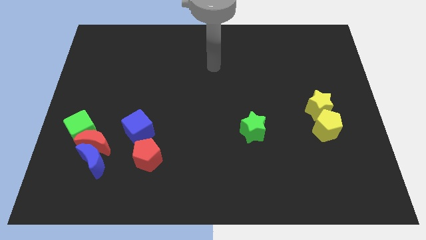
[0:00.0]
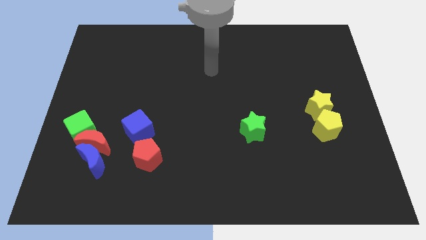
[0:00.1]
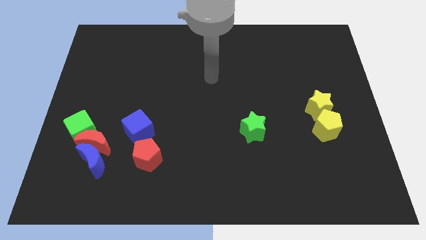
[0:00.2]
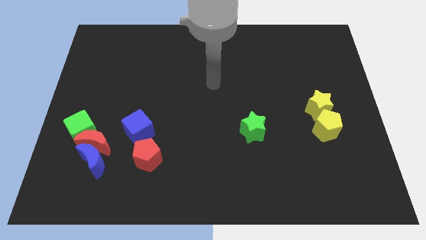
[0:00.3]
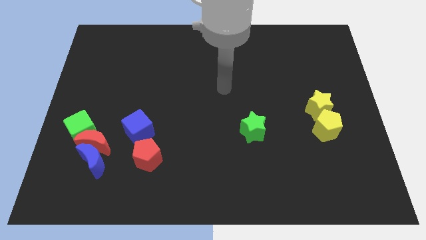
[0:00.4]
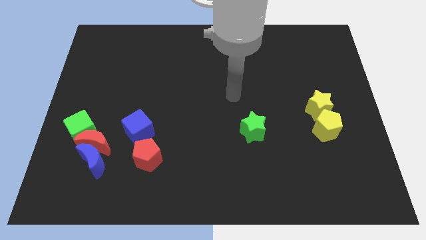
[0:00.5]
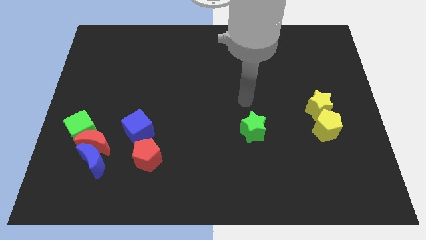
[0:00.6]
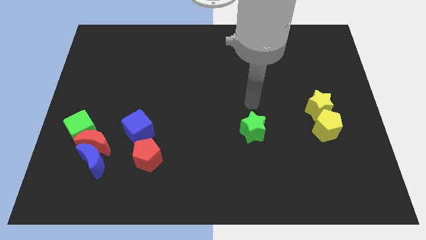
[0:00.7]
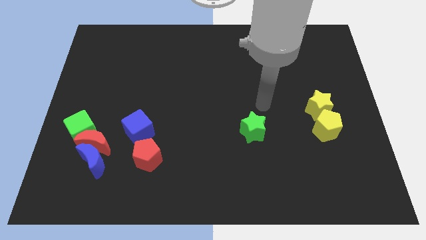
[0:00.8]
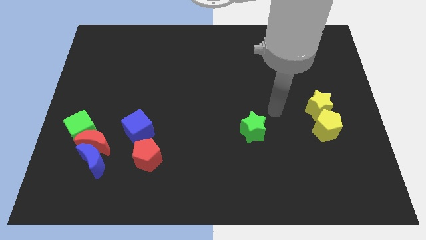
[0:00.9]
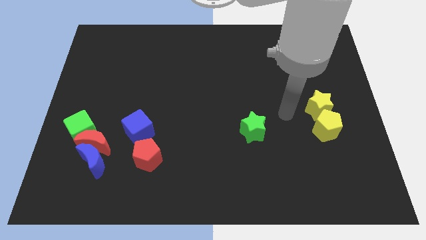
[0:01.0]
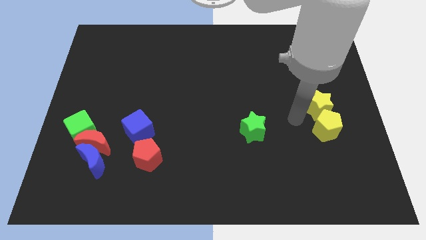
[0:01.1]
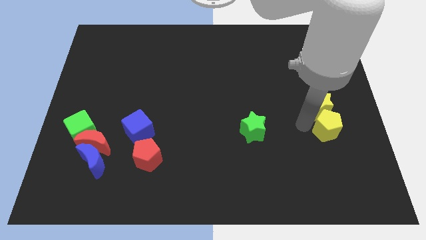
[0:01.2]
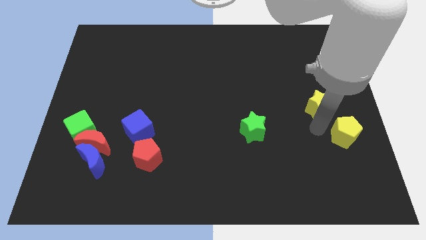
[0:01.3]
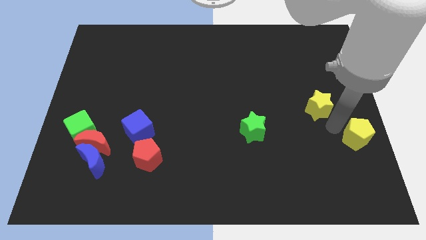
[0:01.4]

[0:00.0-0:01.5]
pull the yellow star apart from the yellow pentagon

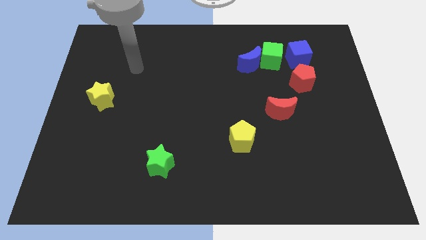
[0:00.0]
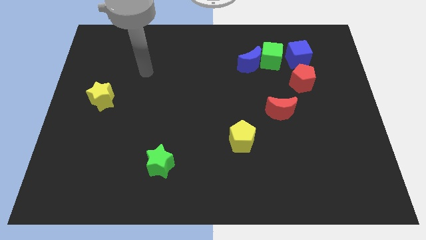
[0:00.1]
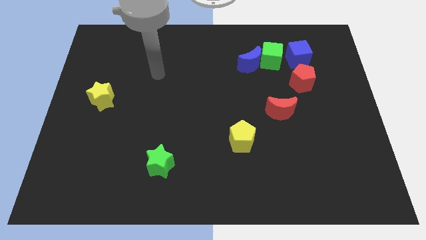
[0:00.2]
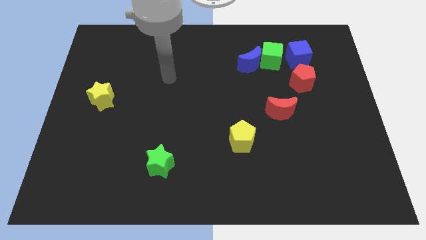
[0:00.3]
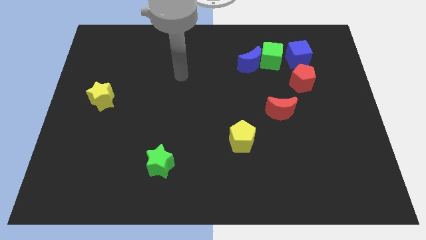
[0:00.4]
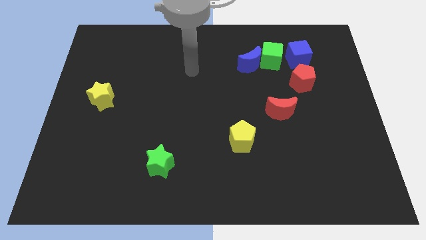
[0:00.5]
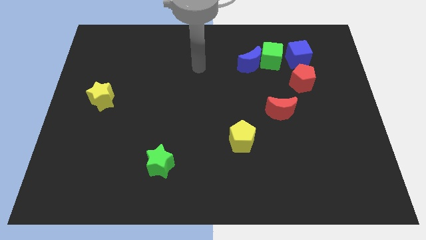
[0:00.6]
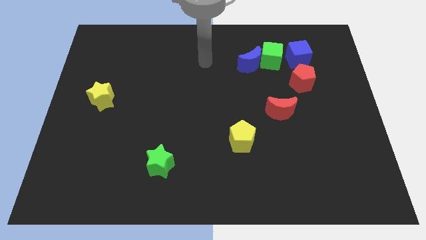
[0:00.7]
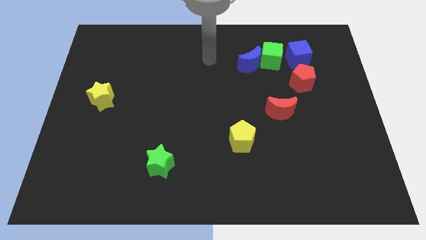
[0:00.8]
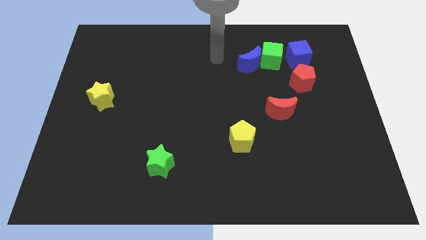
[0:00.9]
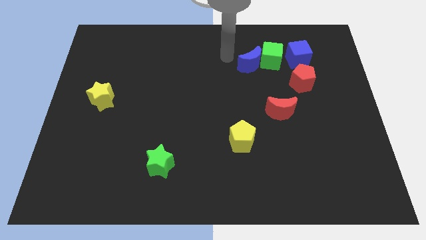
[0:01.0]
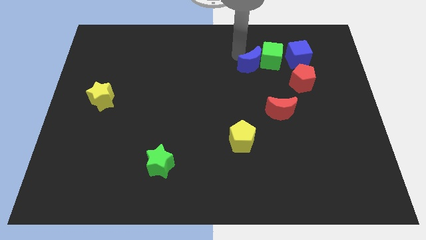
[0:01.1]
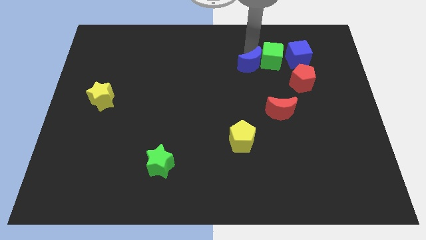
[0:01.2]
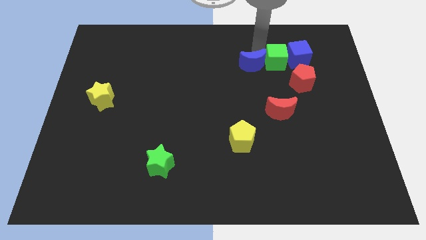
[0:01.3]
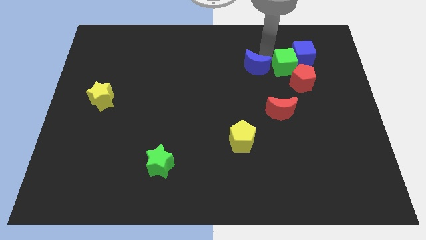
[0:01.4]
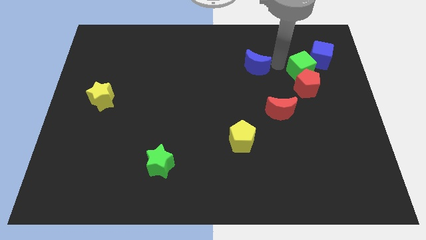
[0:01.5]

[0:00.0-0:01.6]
separate the blue moon from the green cube

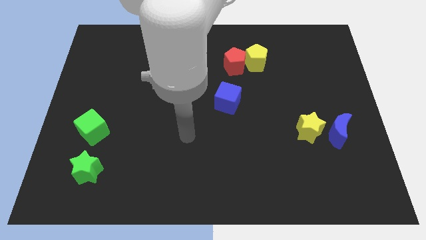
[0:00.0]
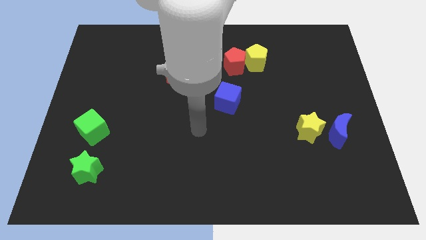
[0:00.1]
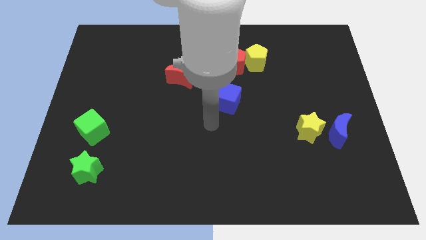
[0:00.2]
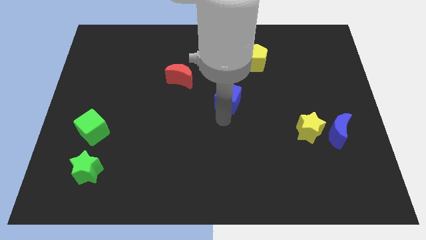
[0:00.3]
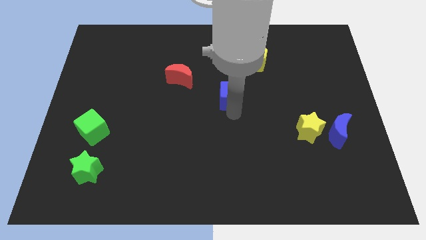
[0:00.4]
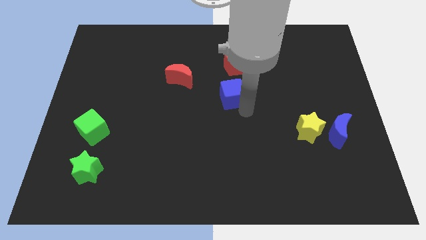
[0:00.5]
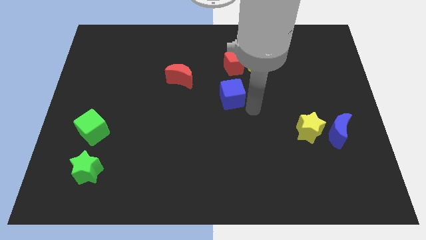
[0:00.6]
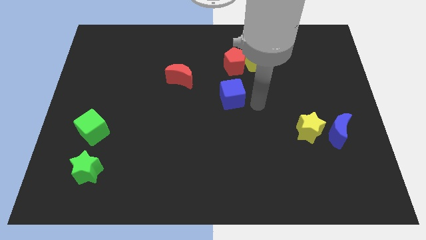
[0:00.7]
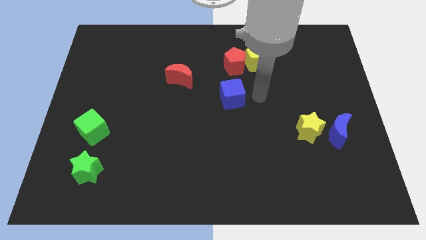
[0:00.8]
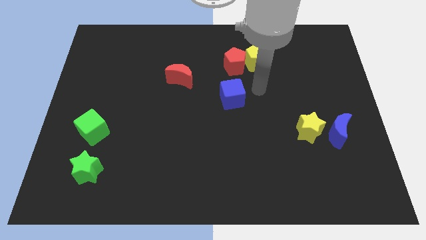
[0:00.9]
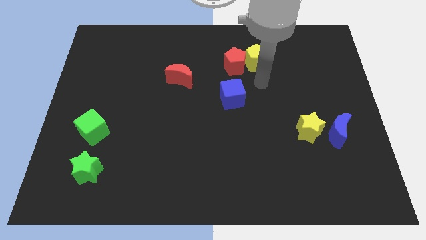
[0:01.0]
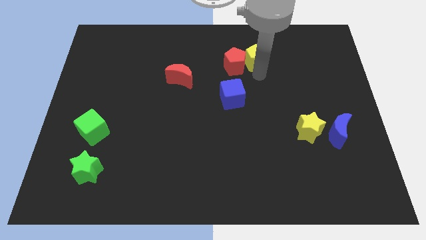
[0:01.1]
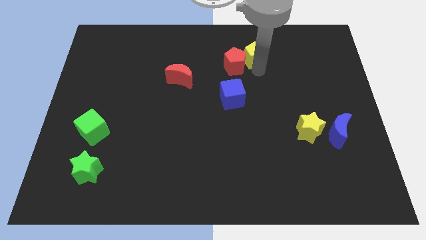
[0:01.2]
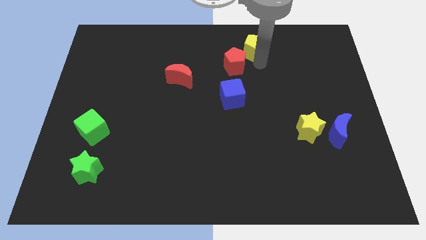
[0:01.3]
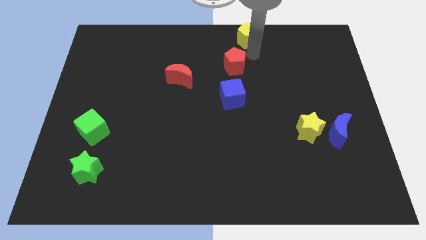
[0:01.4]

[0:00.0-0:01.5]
pull the red pentagon apart from the yellow pentagon

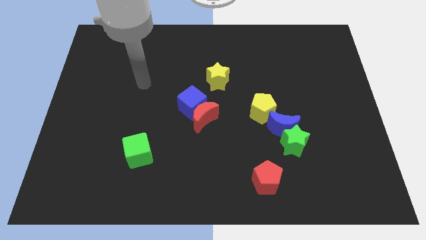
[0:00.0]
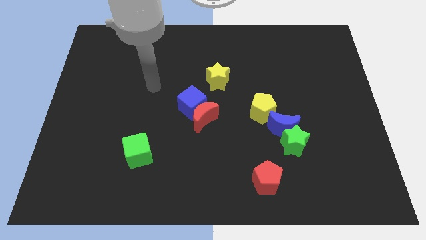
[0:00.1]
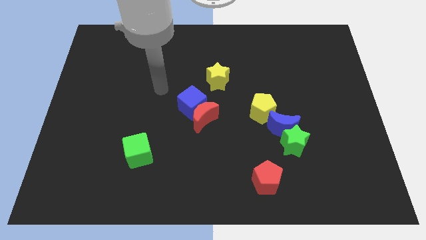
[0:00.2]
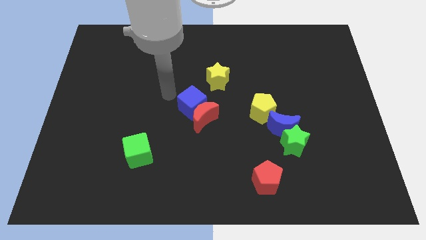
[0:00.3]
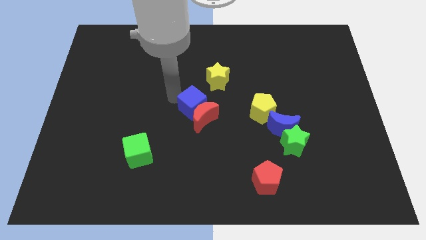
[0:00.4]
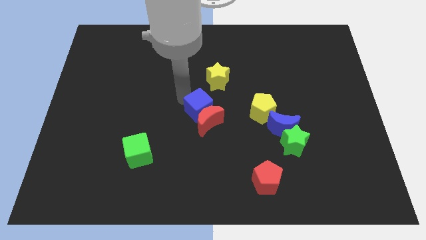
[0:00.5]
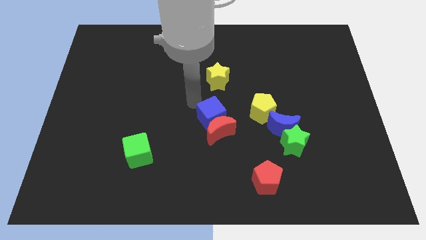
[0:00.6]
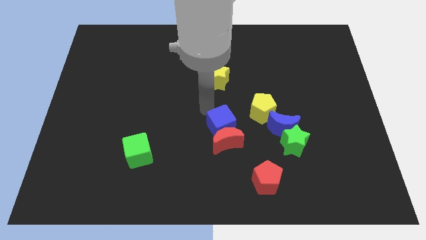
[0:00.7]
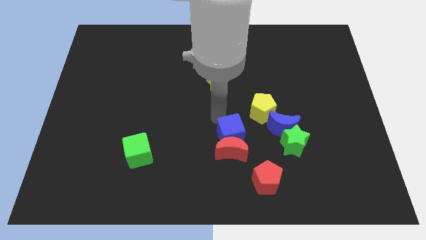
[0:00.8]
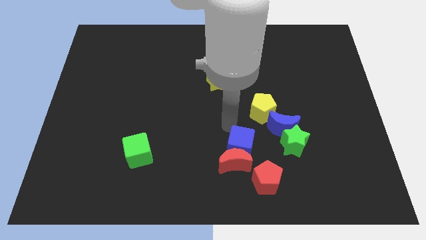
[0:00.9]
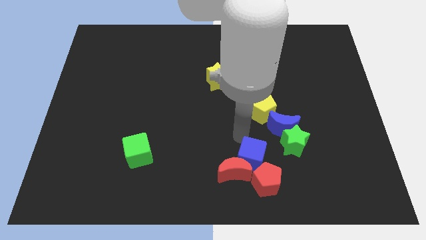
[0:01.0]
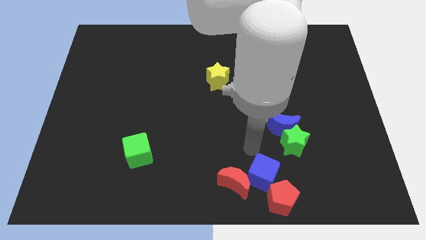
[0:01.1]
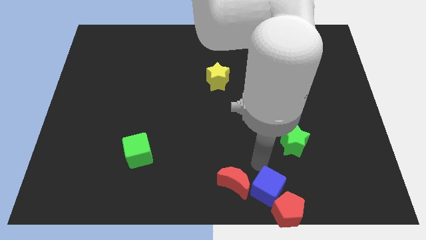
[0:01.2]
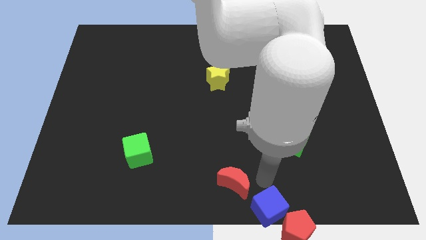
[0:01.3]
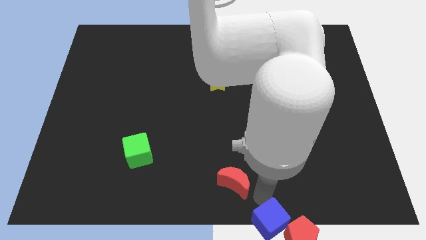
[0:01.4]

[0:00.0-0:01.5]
separate the red moon from the blue cube

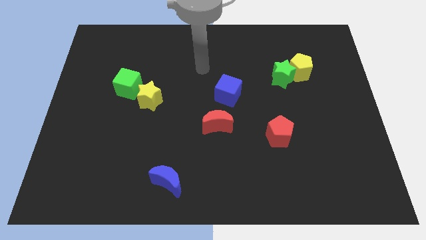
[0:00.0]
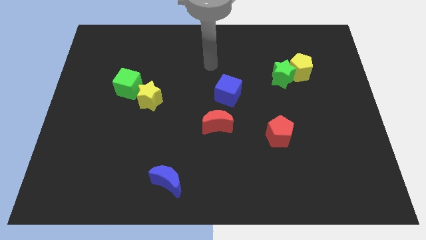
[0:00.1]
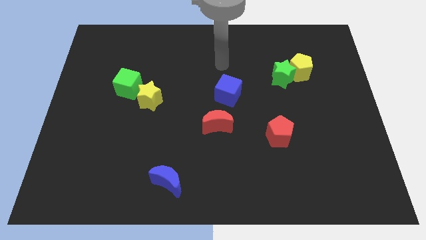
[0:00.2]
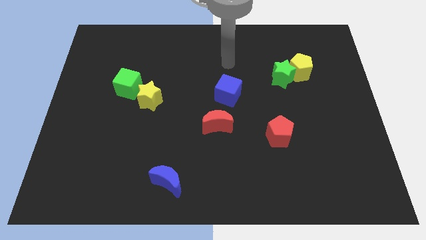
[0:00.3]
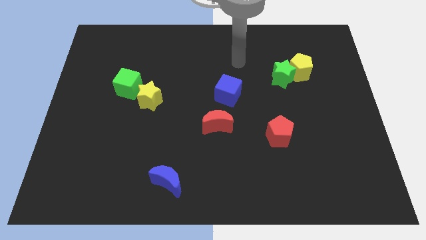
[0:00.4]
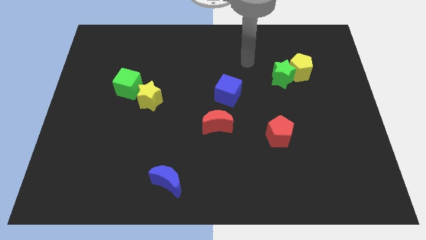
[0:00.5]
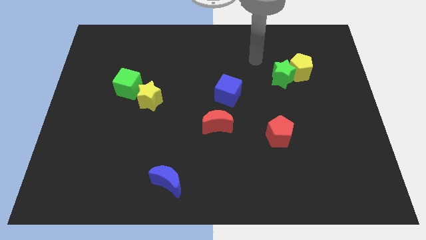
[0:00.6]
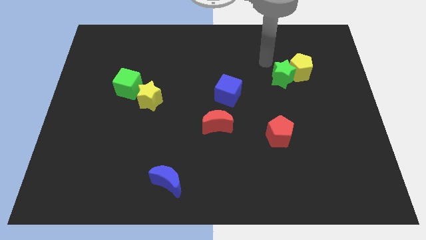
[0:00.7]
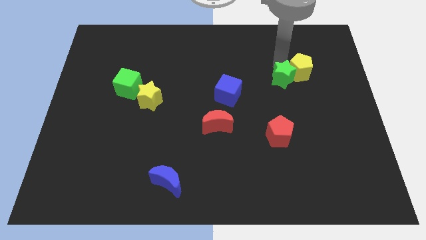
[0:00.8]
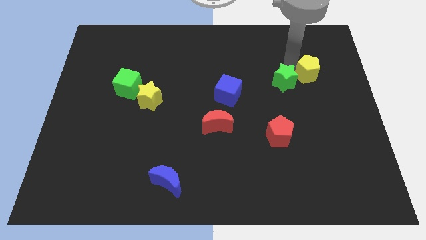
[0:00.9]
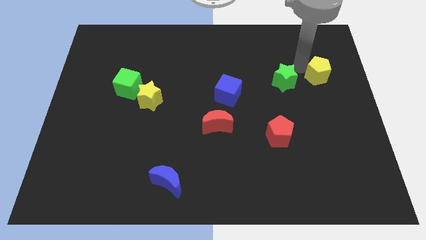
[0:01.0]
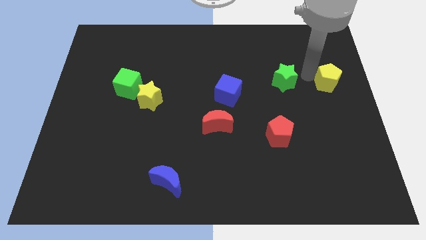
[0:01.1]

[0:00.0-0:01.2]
move the green star away from the yellow pentagon

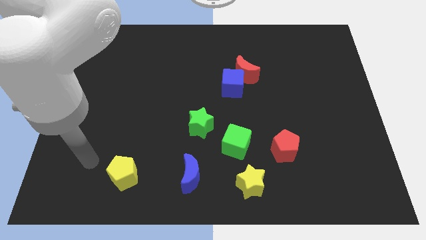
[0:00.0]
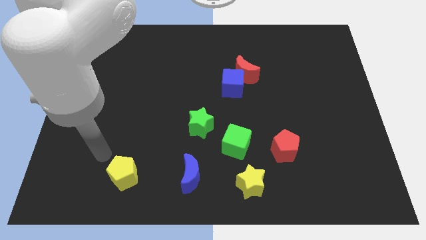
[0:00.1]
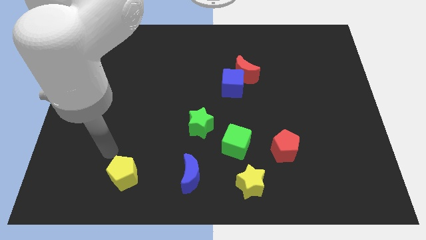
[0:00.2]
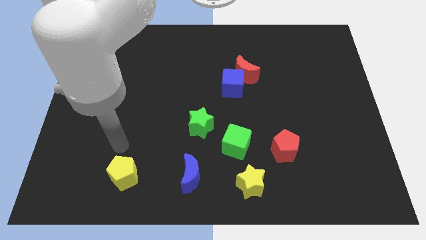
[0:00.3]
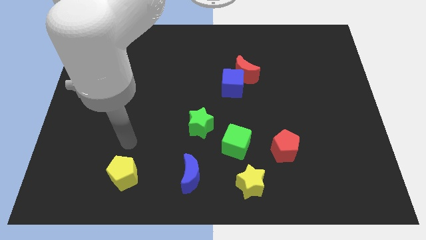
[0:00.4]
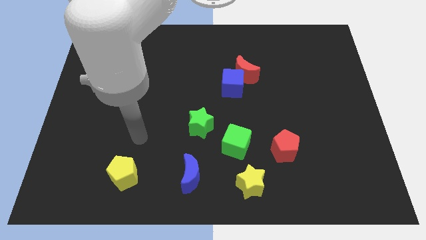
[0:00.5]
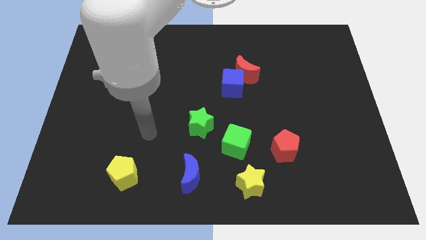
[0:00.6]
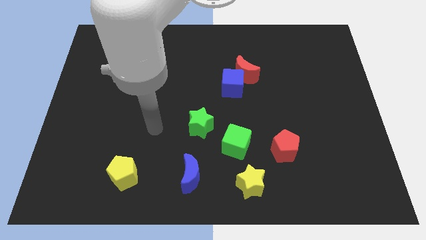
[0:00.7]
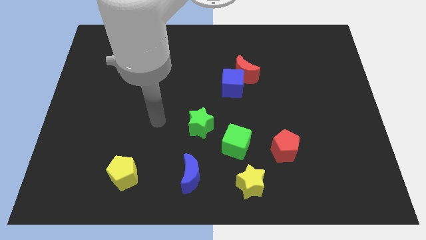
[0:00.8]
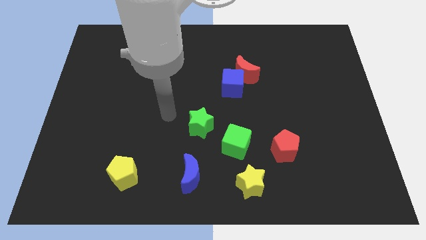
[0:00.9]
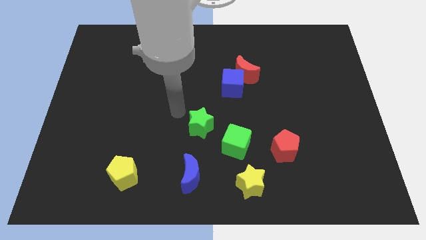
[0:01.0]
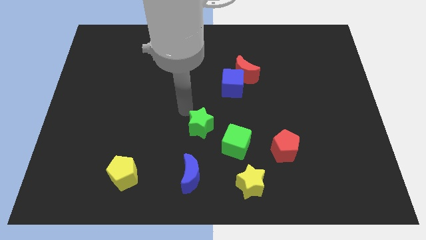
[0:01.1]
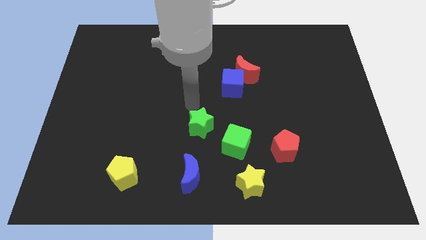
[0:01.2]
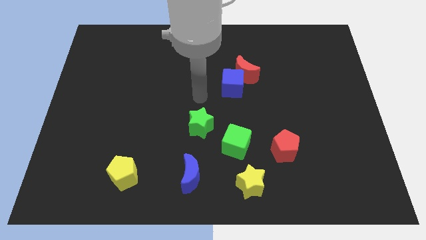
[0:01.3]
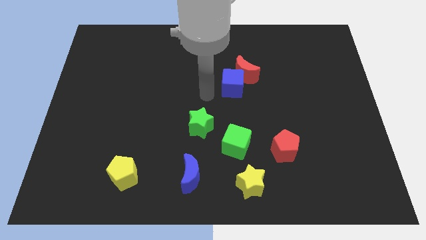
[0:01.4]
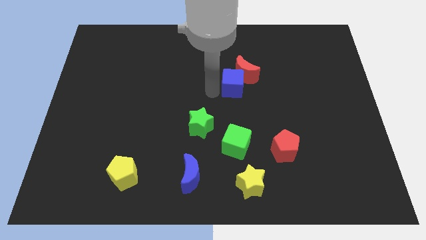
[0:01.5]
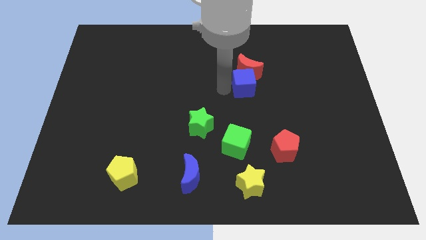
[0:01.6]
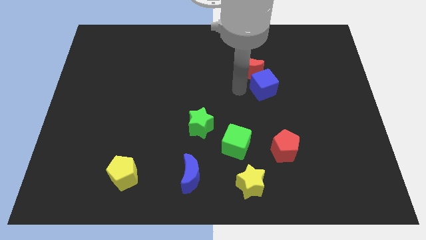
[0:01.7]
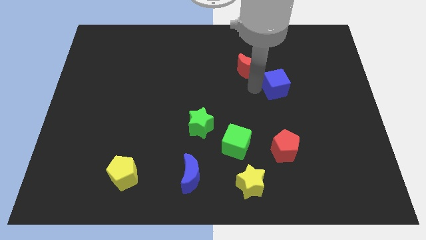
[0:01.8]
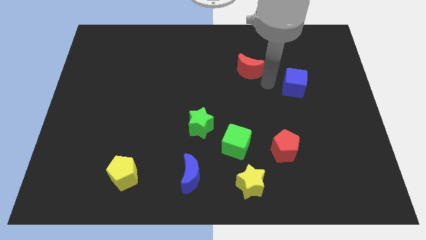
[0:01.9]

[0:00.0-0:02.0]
pull the red moon apart from the blue cube
